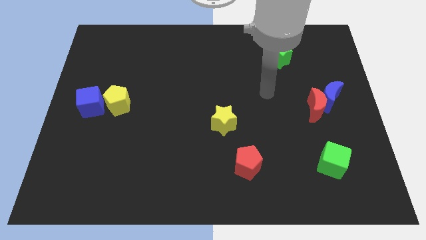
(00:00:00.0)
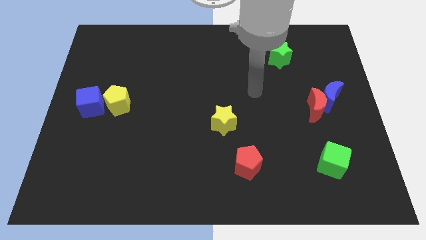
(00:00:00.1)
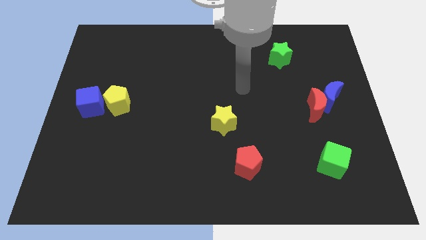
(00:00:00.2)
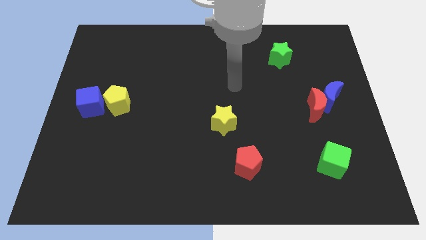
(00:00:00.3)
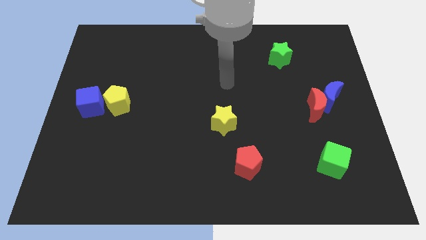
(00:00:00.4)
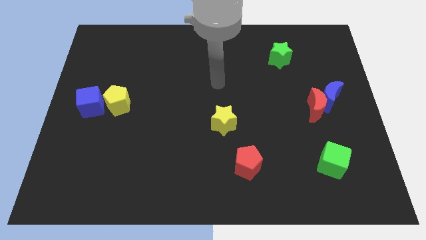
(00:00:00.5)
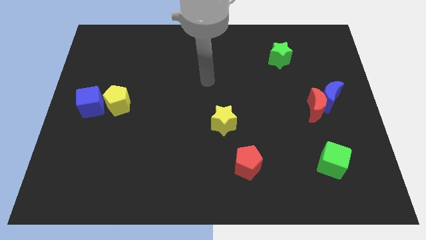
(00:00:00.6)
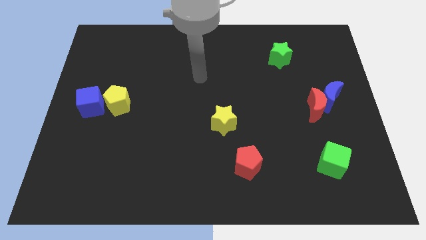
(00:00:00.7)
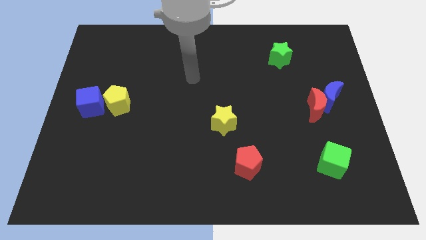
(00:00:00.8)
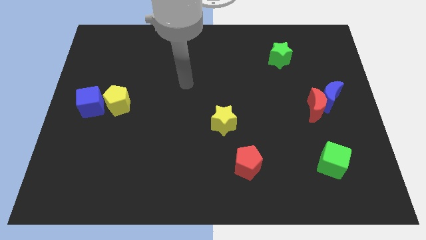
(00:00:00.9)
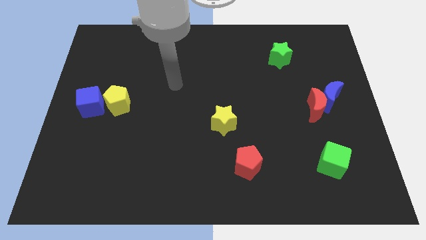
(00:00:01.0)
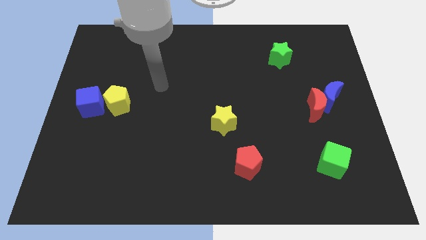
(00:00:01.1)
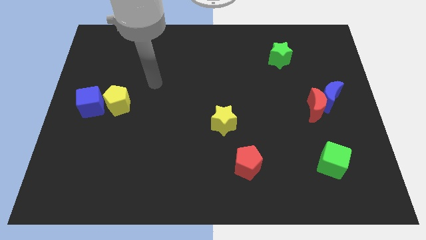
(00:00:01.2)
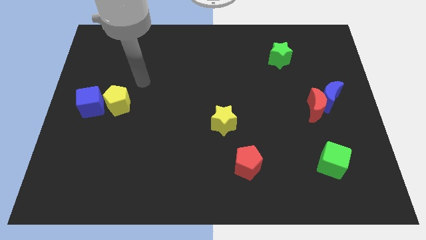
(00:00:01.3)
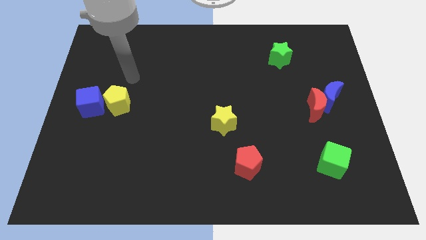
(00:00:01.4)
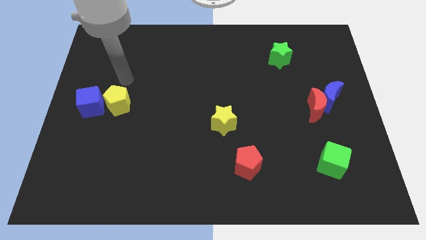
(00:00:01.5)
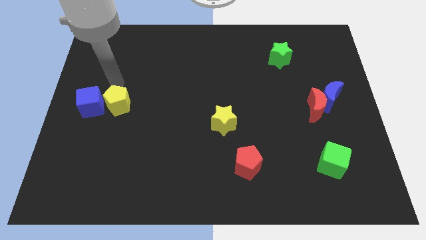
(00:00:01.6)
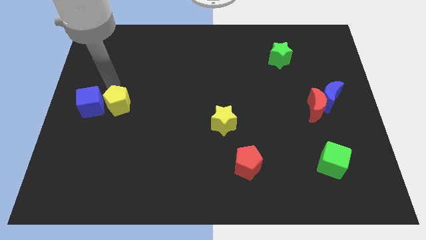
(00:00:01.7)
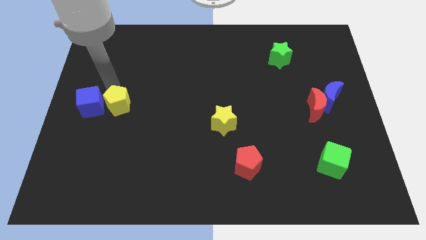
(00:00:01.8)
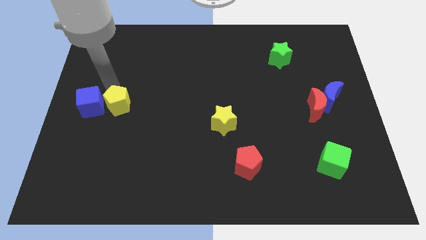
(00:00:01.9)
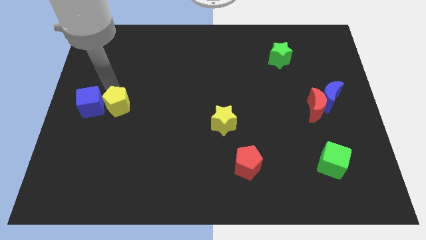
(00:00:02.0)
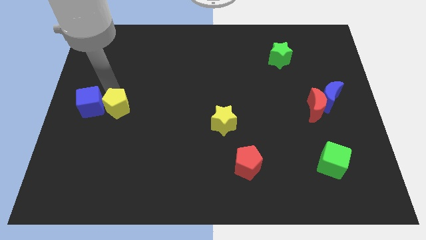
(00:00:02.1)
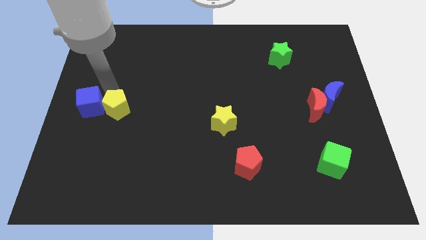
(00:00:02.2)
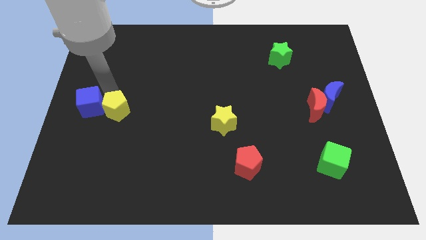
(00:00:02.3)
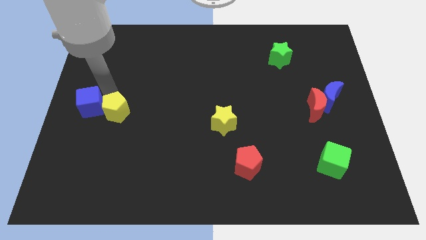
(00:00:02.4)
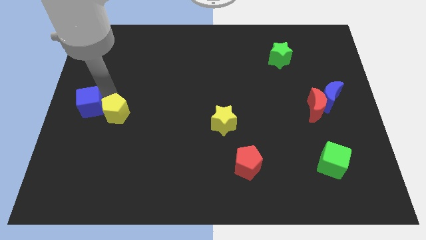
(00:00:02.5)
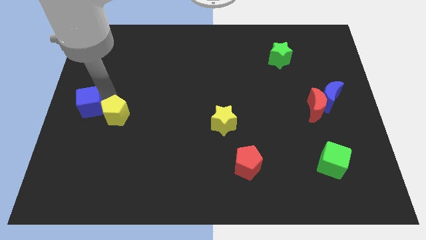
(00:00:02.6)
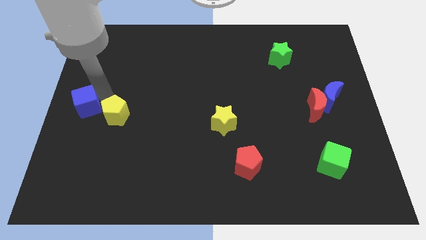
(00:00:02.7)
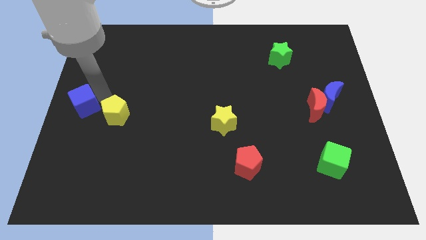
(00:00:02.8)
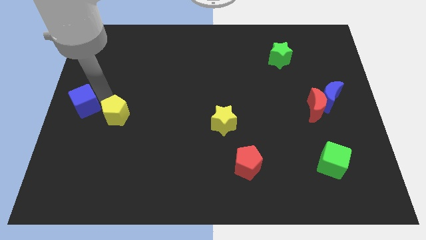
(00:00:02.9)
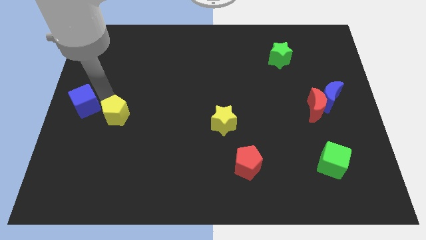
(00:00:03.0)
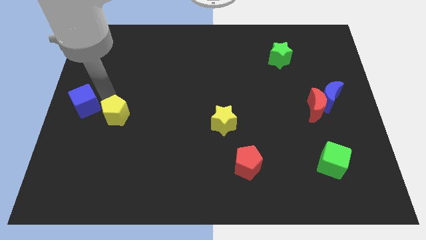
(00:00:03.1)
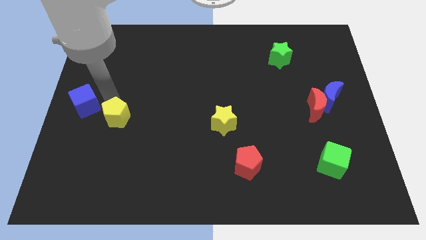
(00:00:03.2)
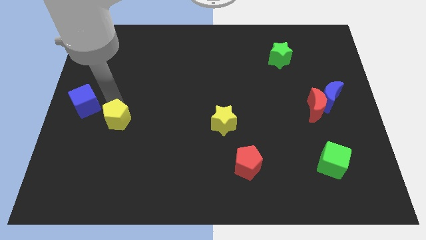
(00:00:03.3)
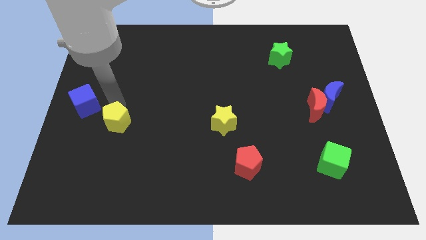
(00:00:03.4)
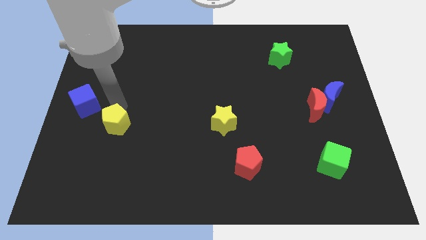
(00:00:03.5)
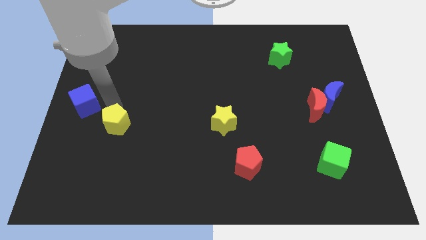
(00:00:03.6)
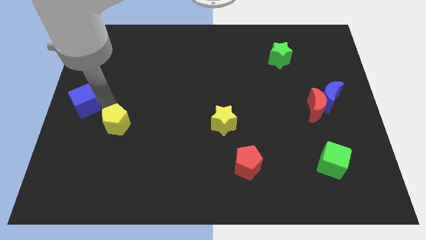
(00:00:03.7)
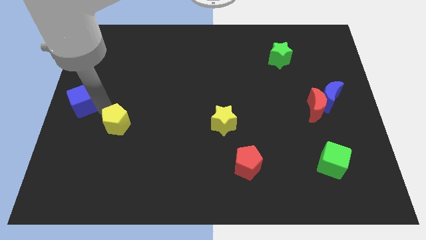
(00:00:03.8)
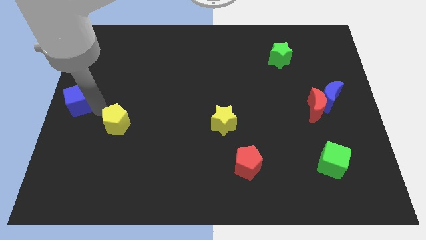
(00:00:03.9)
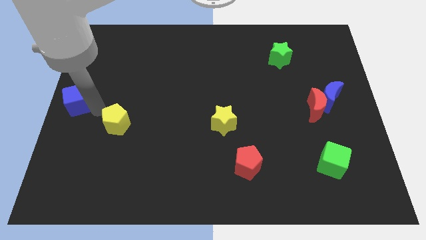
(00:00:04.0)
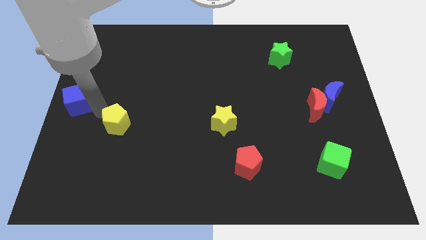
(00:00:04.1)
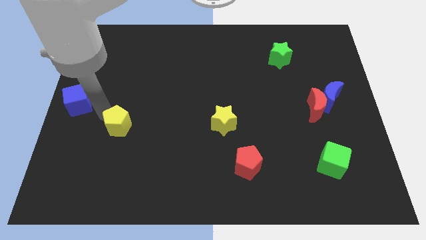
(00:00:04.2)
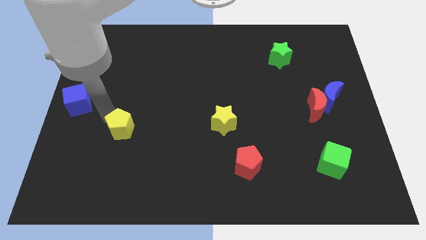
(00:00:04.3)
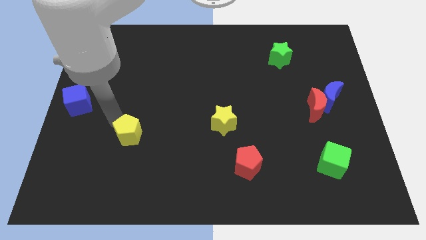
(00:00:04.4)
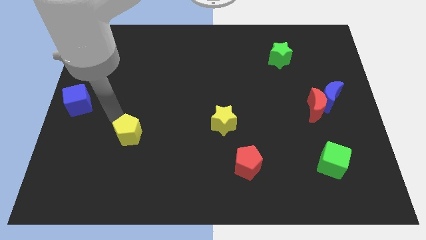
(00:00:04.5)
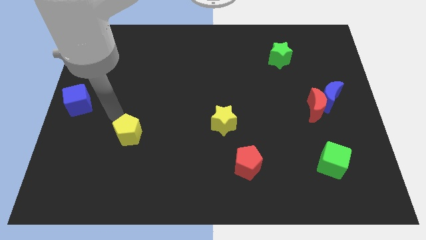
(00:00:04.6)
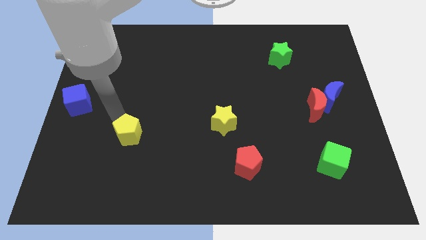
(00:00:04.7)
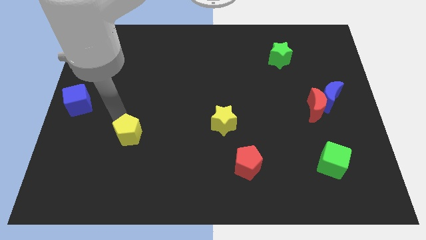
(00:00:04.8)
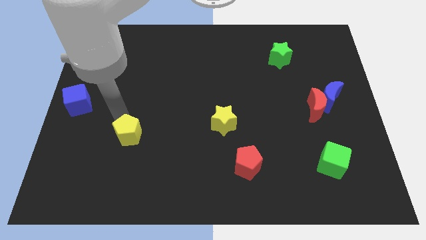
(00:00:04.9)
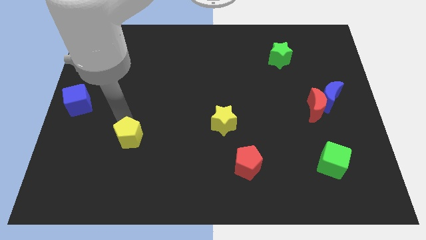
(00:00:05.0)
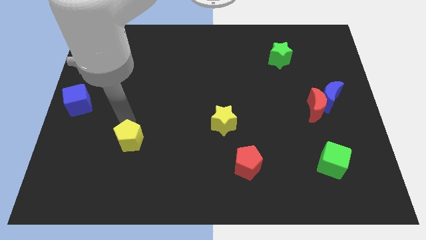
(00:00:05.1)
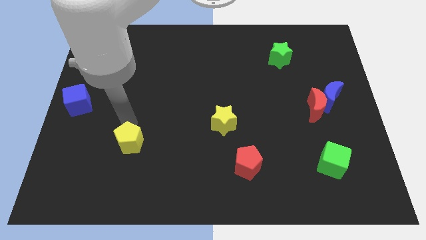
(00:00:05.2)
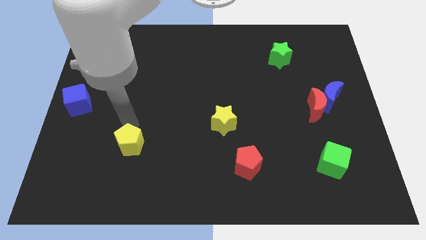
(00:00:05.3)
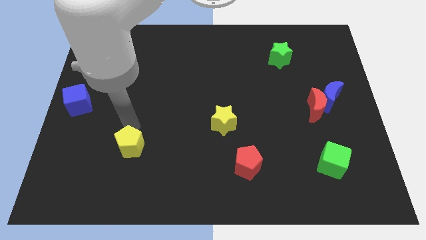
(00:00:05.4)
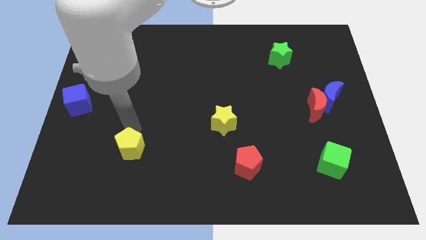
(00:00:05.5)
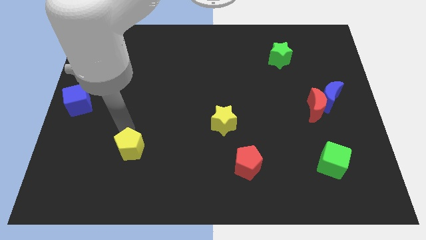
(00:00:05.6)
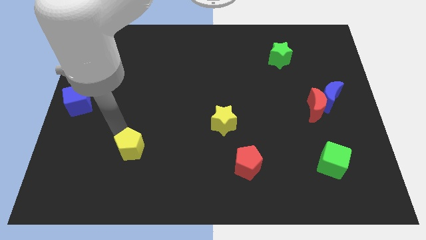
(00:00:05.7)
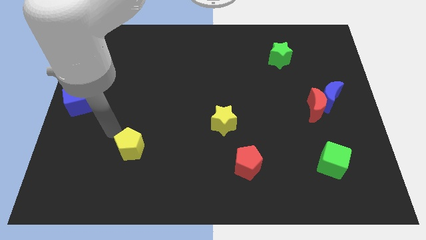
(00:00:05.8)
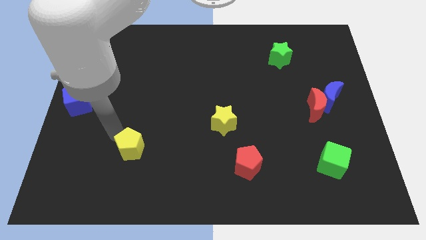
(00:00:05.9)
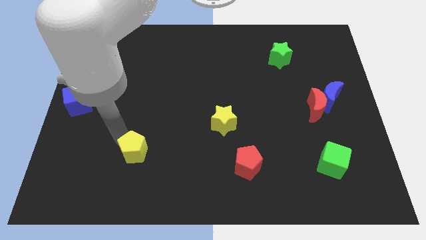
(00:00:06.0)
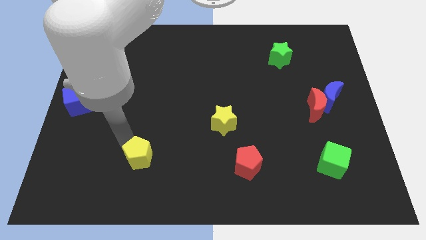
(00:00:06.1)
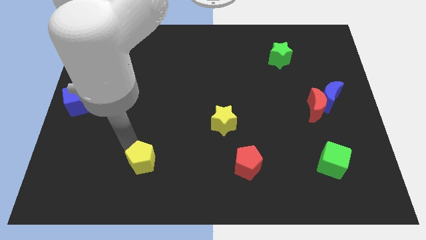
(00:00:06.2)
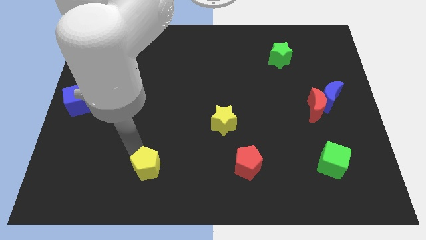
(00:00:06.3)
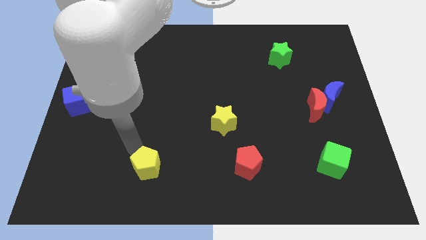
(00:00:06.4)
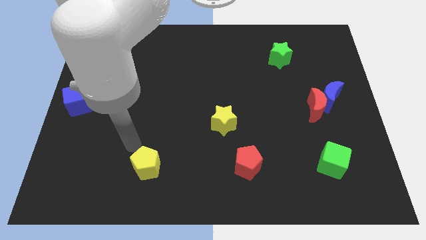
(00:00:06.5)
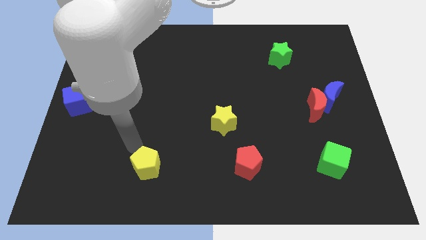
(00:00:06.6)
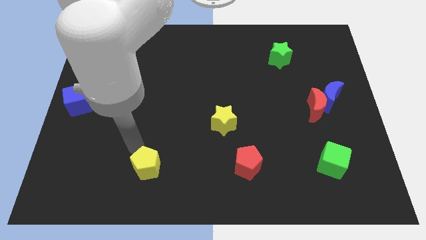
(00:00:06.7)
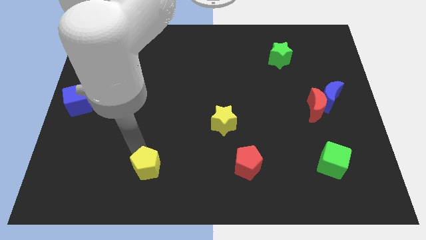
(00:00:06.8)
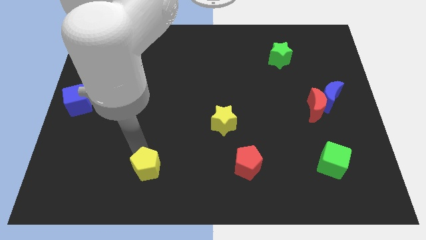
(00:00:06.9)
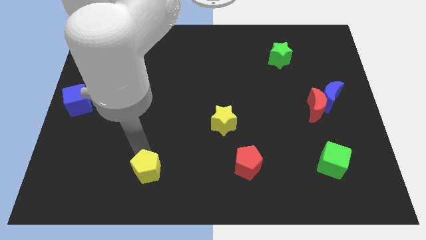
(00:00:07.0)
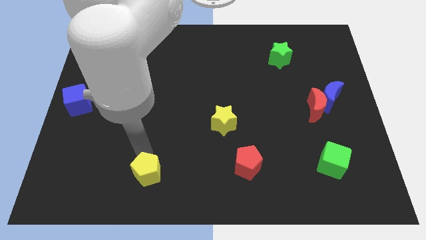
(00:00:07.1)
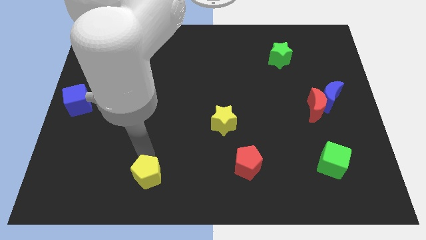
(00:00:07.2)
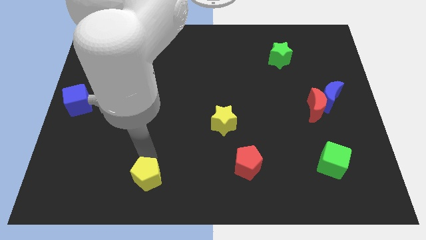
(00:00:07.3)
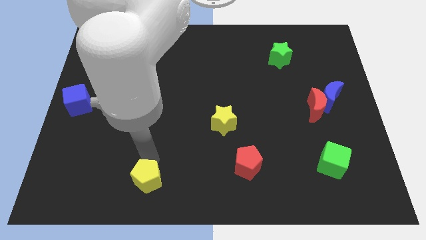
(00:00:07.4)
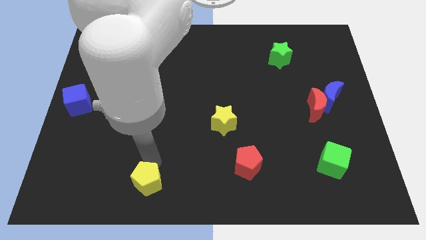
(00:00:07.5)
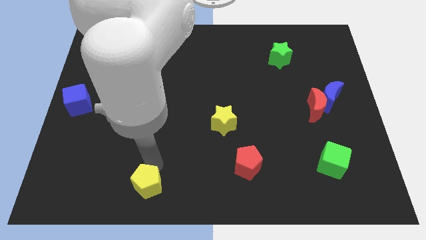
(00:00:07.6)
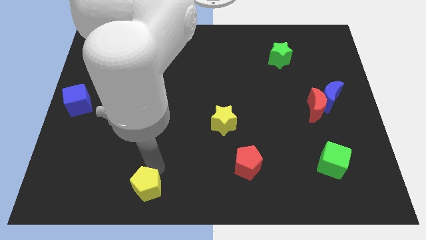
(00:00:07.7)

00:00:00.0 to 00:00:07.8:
move the yellow pentagon to the bottom
